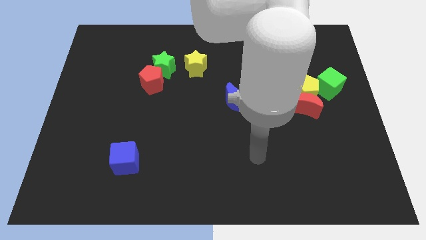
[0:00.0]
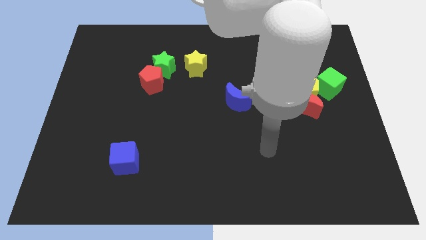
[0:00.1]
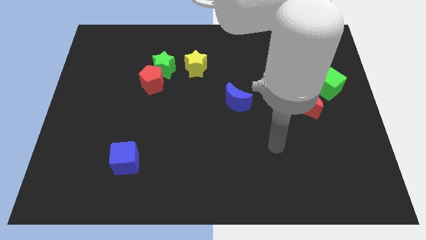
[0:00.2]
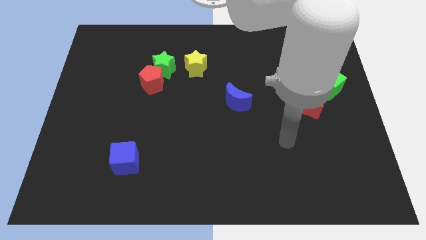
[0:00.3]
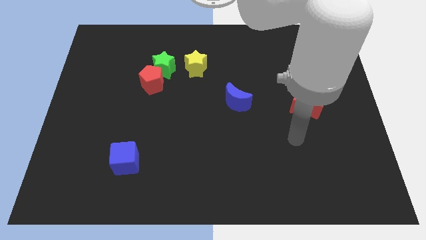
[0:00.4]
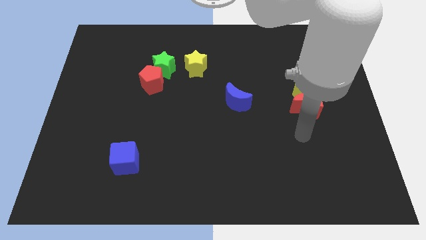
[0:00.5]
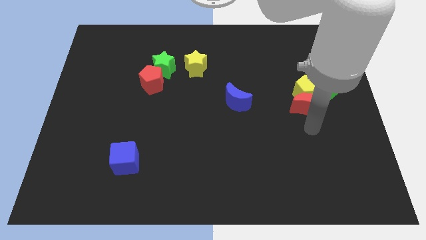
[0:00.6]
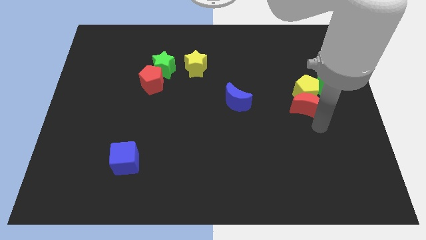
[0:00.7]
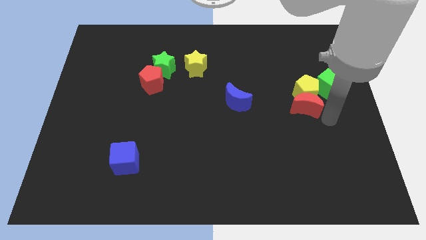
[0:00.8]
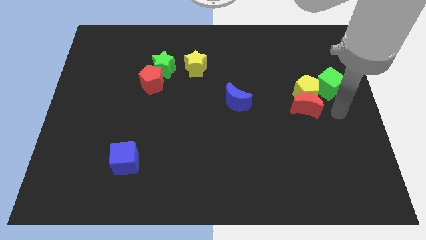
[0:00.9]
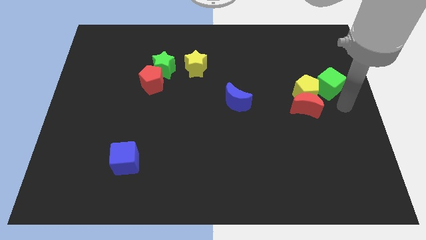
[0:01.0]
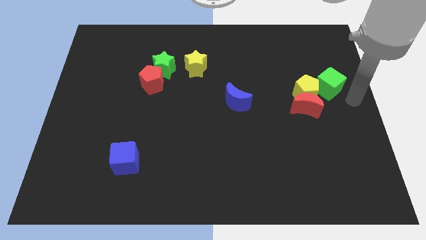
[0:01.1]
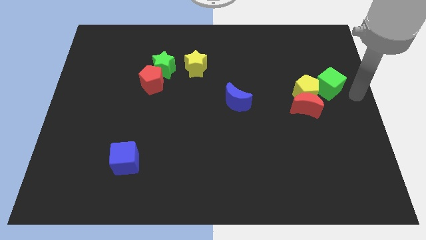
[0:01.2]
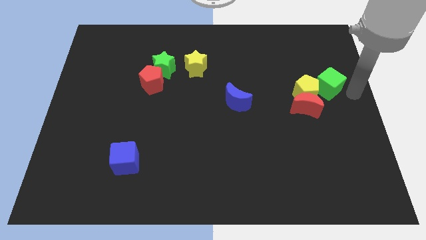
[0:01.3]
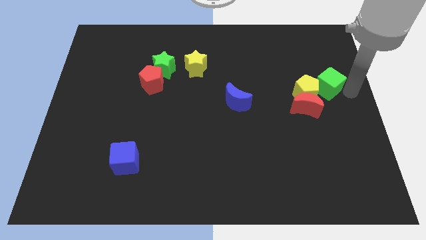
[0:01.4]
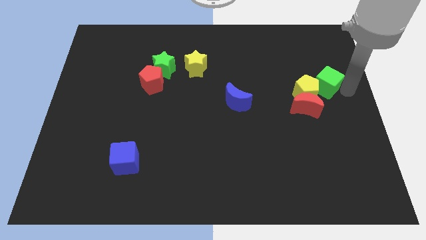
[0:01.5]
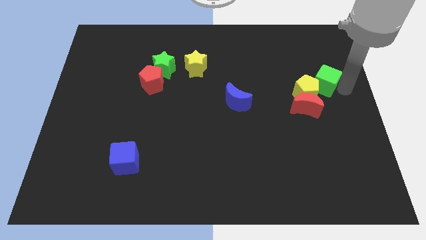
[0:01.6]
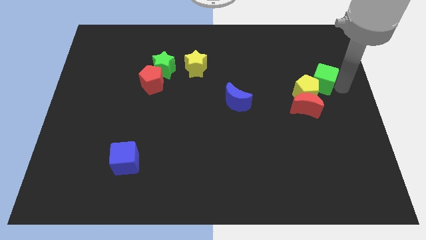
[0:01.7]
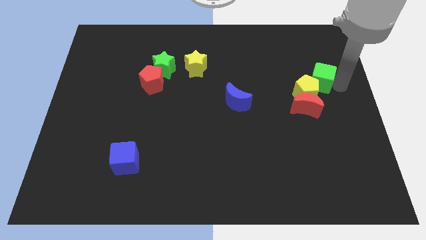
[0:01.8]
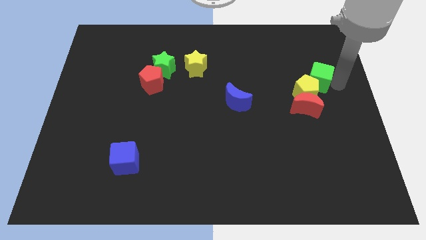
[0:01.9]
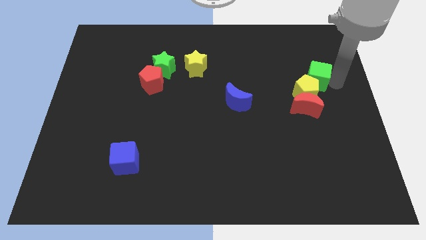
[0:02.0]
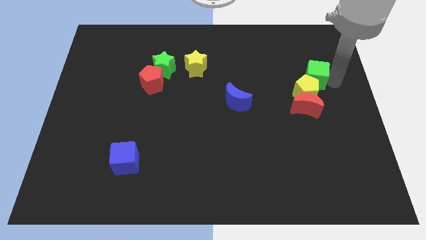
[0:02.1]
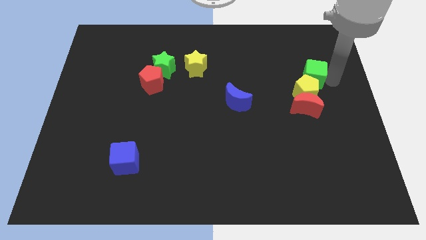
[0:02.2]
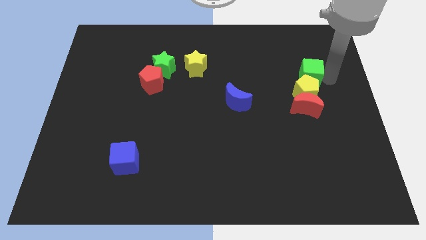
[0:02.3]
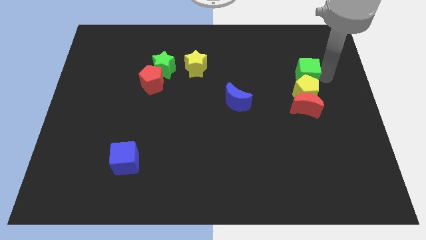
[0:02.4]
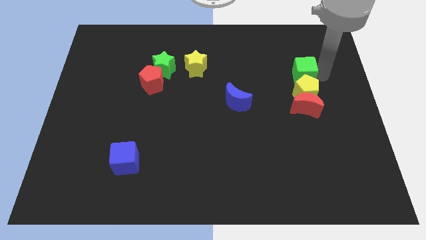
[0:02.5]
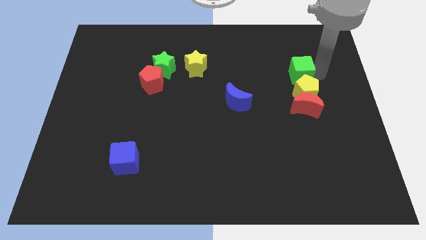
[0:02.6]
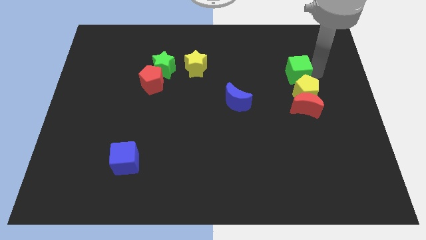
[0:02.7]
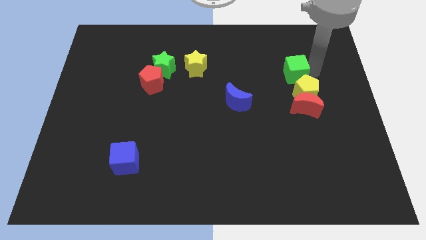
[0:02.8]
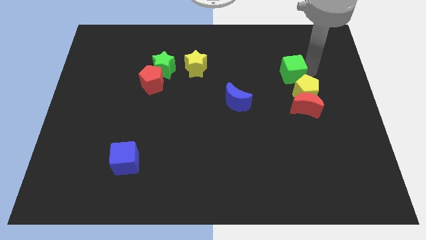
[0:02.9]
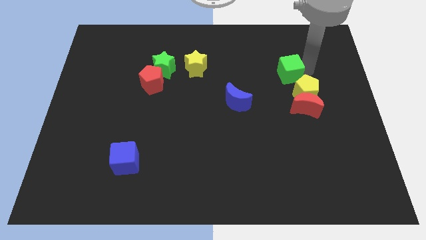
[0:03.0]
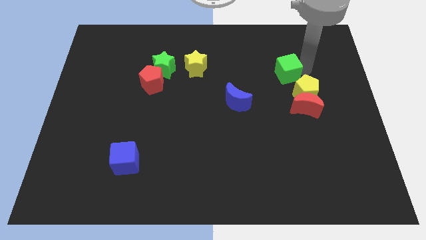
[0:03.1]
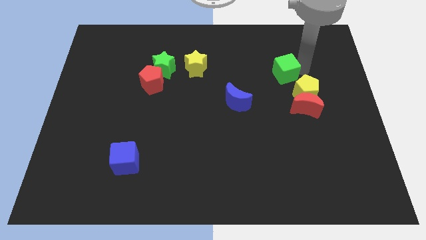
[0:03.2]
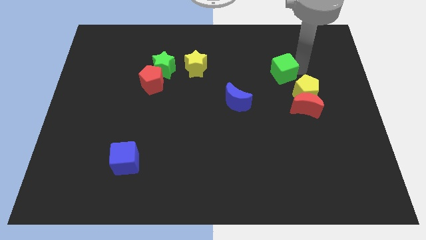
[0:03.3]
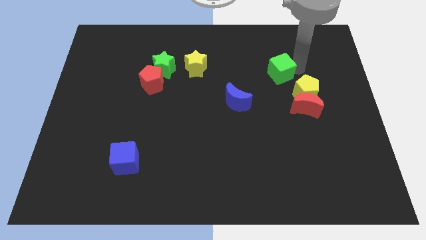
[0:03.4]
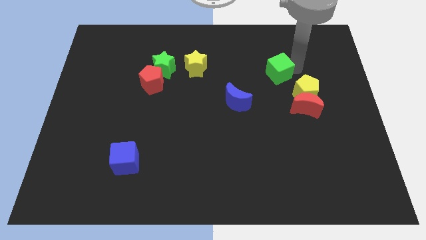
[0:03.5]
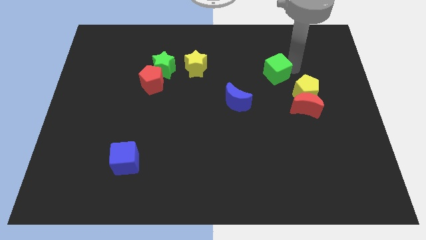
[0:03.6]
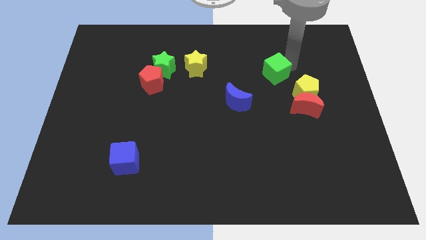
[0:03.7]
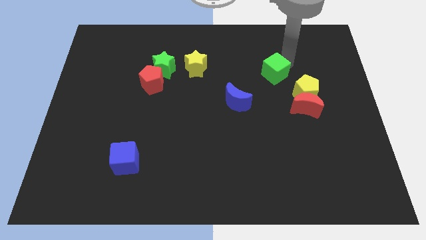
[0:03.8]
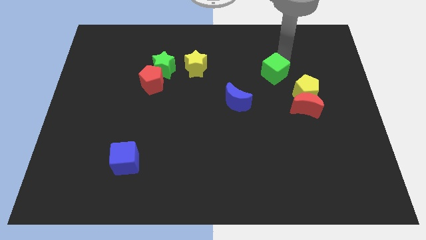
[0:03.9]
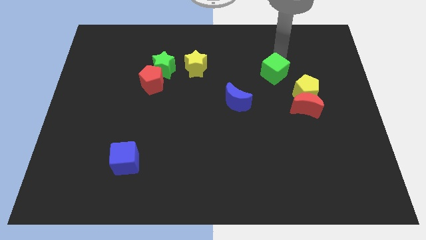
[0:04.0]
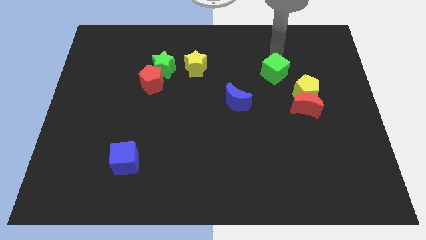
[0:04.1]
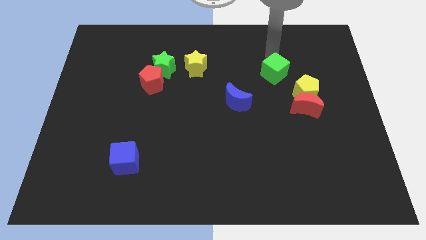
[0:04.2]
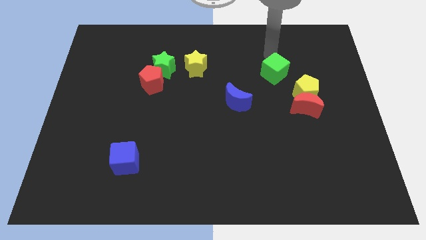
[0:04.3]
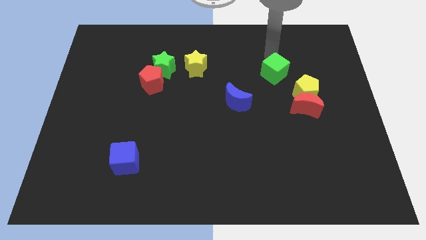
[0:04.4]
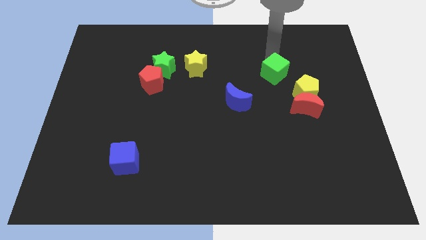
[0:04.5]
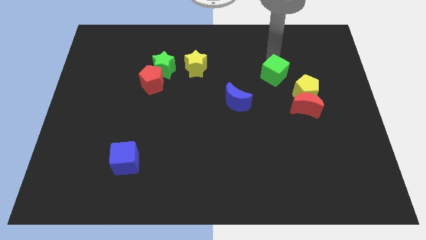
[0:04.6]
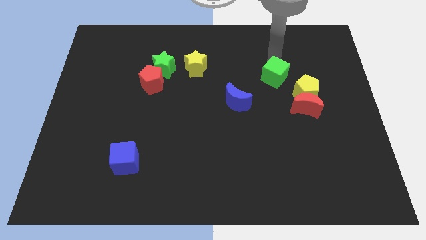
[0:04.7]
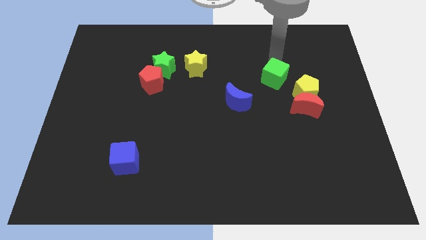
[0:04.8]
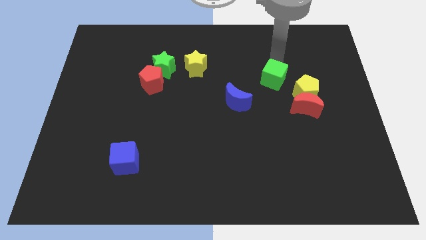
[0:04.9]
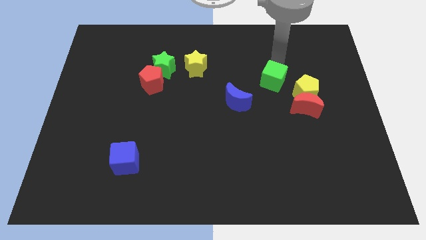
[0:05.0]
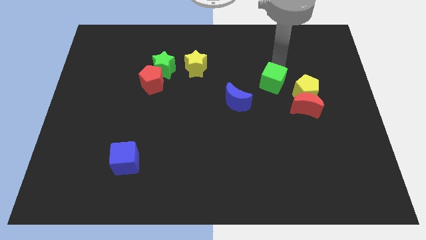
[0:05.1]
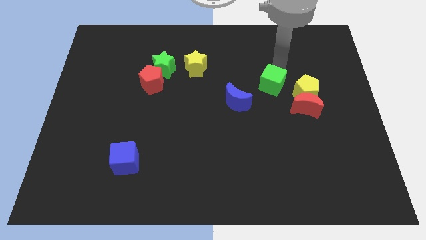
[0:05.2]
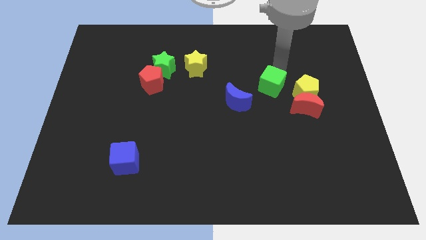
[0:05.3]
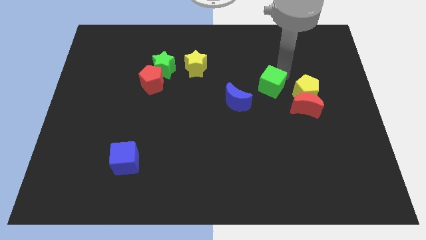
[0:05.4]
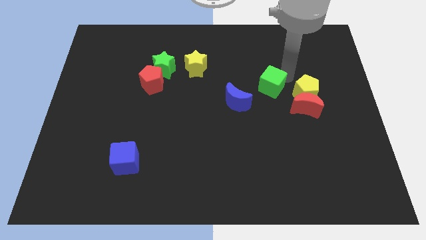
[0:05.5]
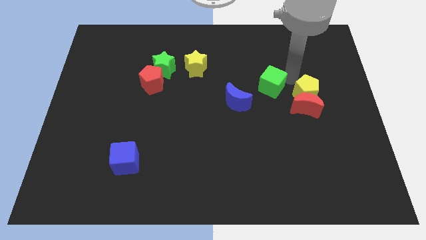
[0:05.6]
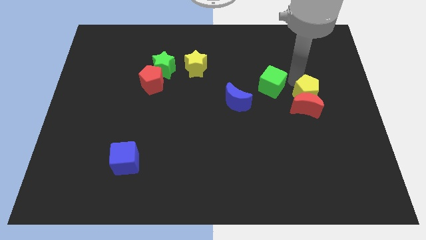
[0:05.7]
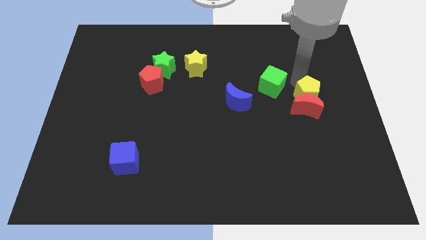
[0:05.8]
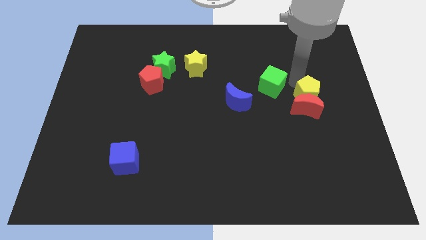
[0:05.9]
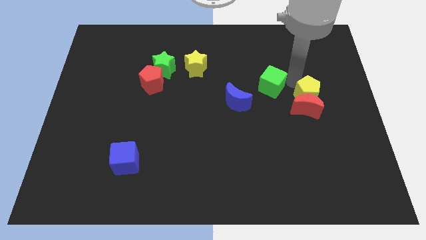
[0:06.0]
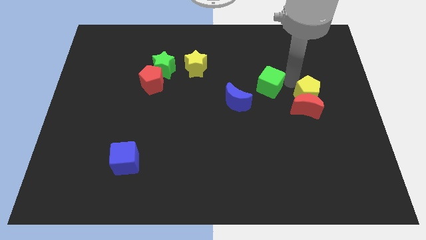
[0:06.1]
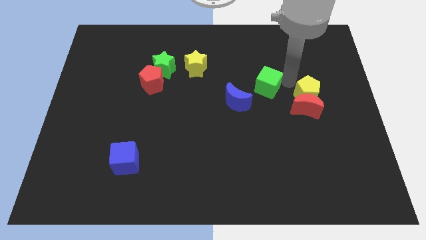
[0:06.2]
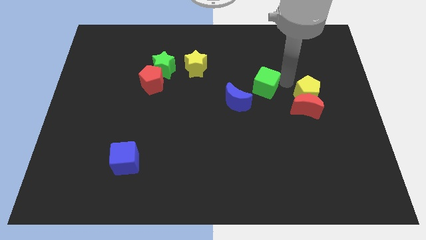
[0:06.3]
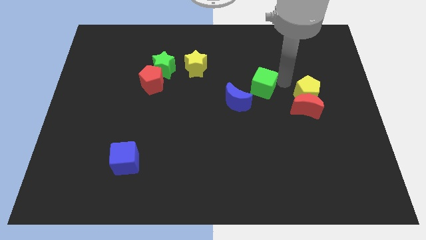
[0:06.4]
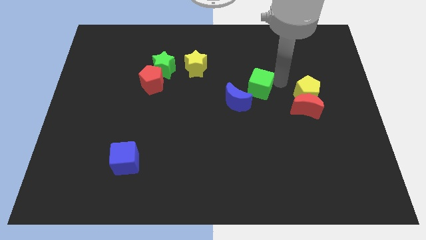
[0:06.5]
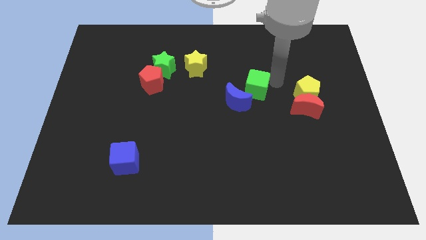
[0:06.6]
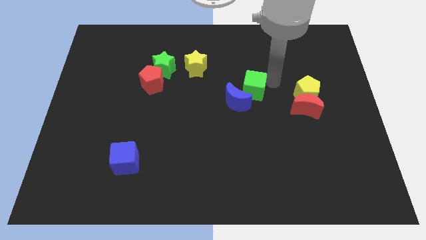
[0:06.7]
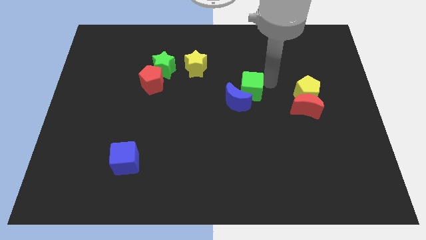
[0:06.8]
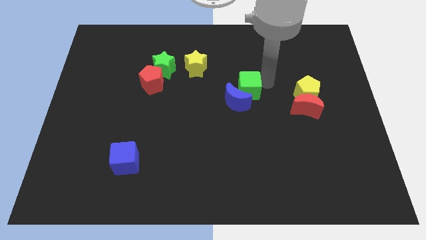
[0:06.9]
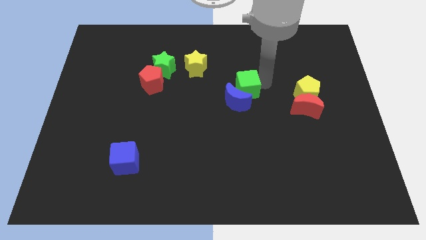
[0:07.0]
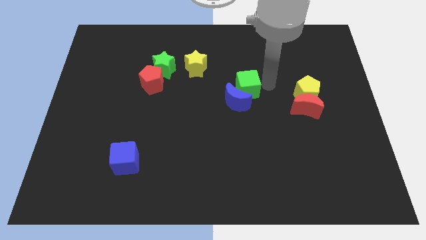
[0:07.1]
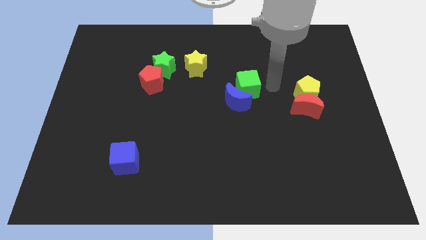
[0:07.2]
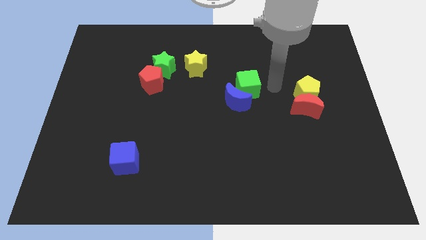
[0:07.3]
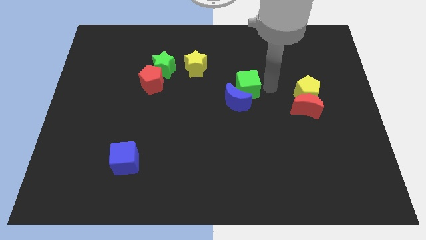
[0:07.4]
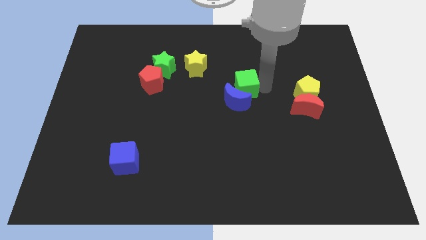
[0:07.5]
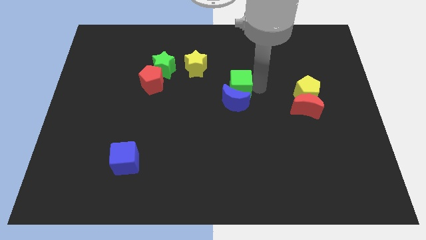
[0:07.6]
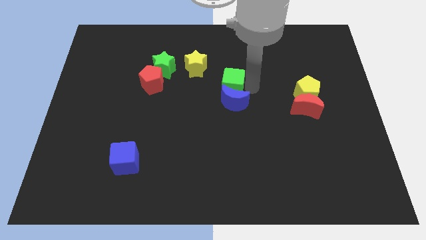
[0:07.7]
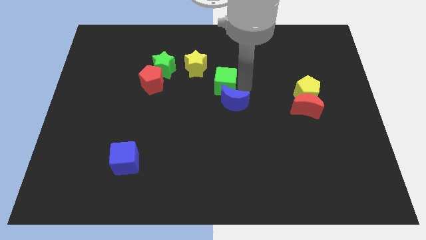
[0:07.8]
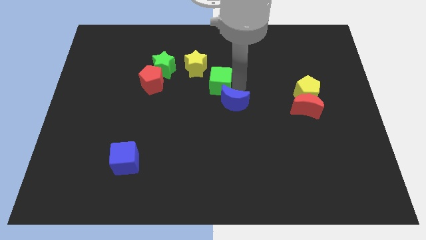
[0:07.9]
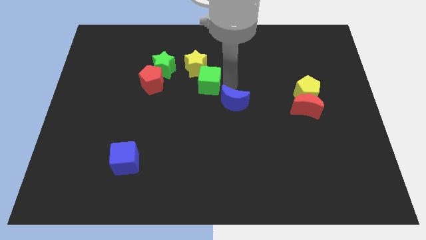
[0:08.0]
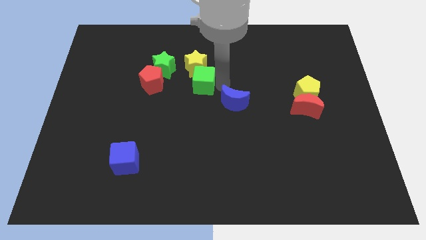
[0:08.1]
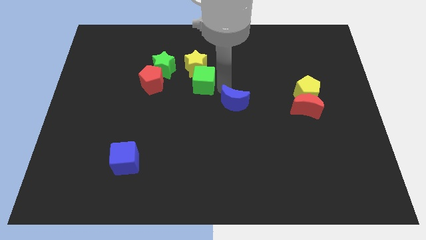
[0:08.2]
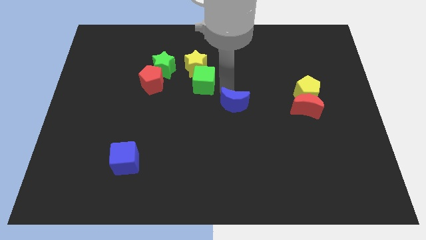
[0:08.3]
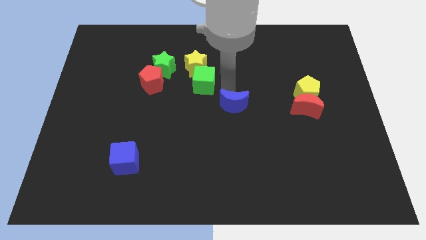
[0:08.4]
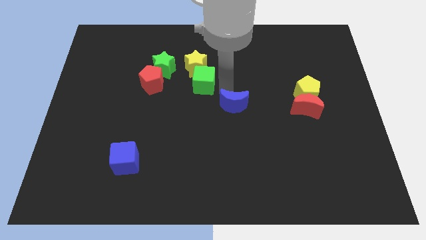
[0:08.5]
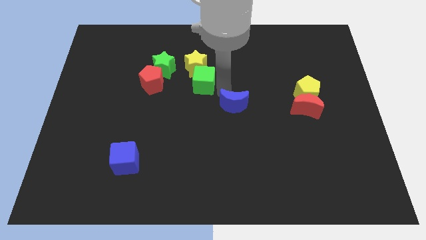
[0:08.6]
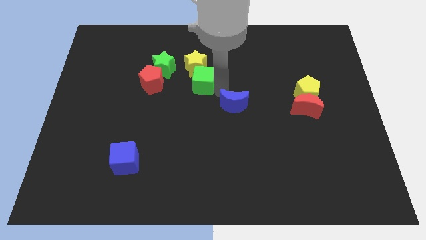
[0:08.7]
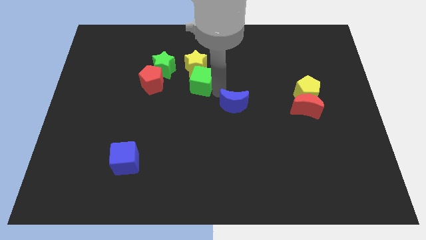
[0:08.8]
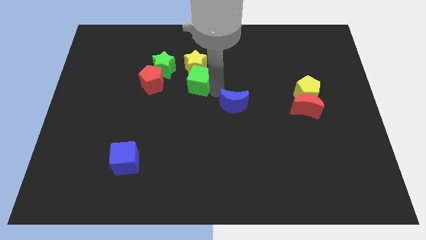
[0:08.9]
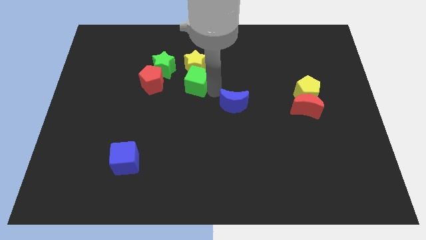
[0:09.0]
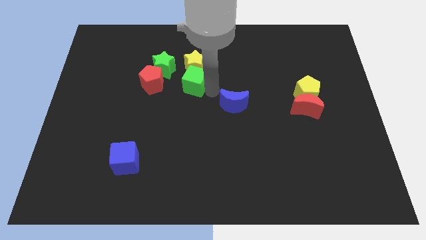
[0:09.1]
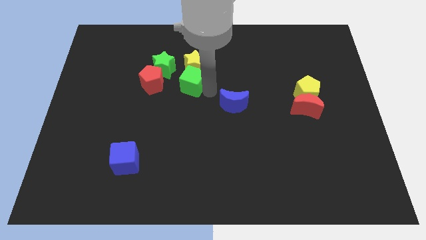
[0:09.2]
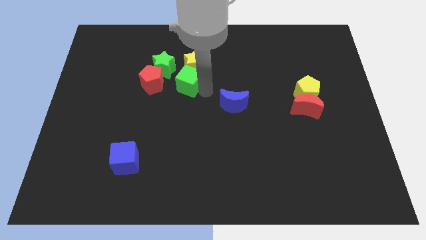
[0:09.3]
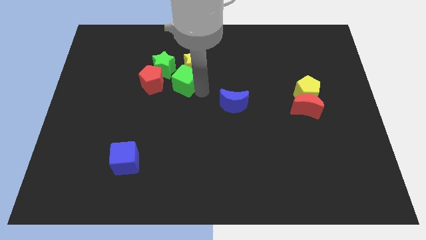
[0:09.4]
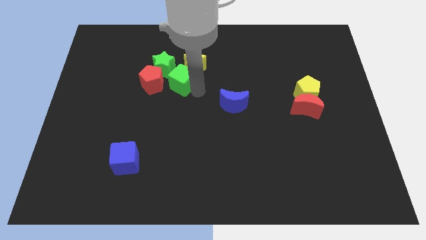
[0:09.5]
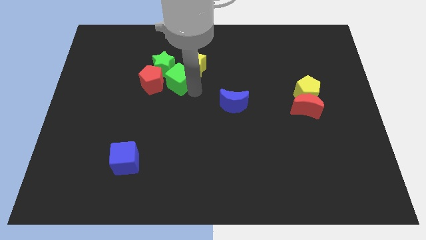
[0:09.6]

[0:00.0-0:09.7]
slide the green cube to the green star
